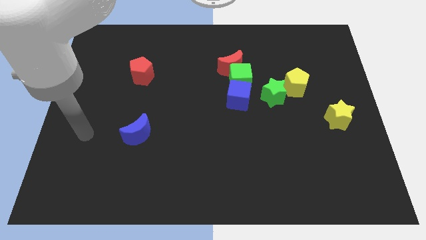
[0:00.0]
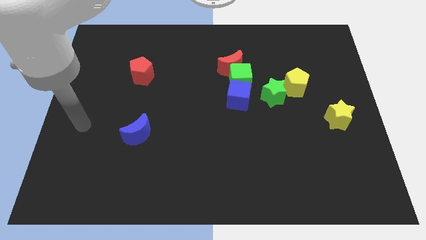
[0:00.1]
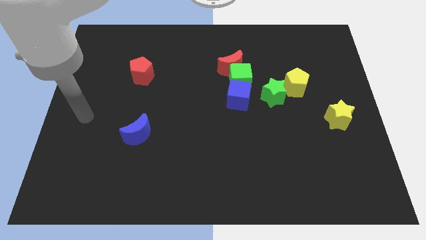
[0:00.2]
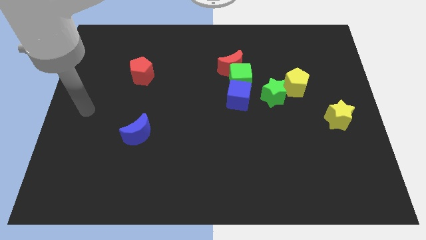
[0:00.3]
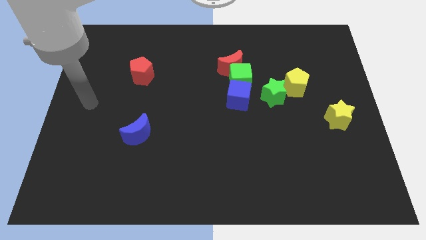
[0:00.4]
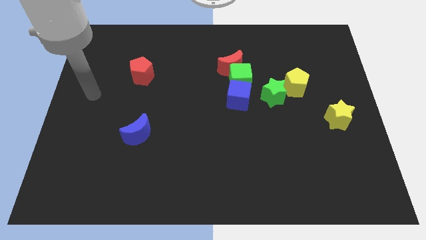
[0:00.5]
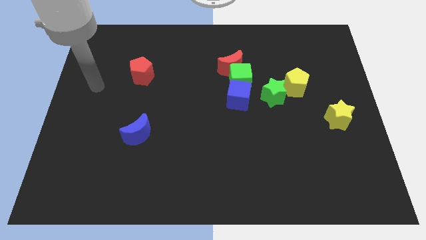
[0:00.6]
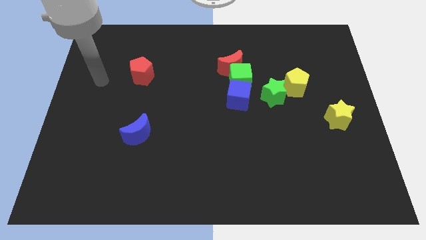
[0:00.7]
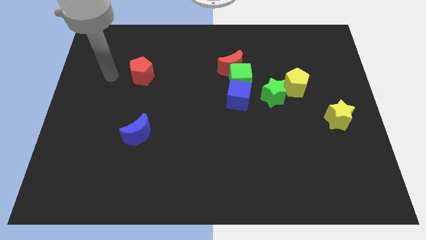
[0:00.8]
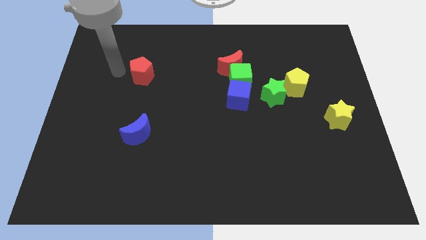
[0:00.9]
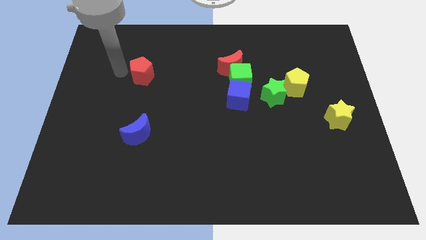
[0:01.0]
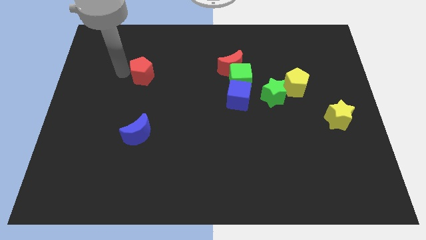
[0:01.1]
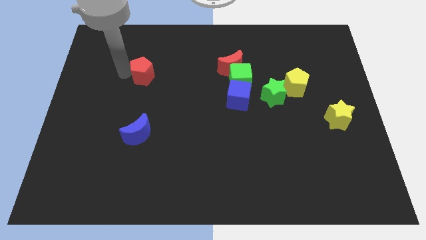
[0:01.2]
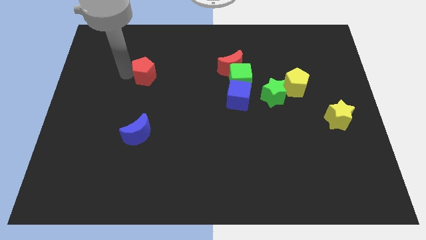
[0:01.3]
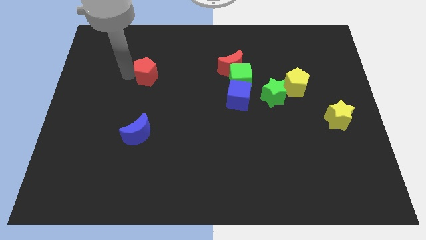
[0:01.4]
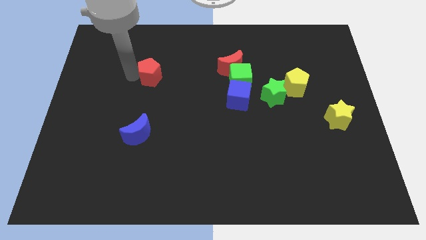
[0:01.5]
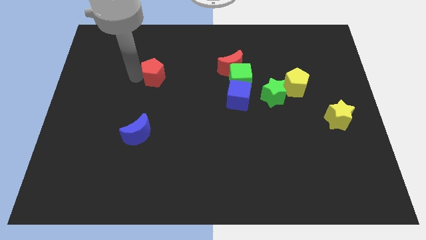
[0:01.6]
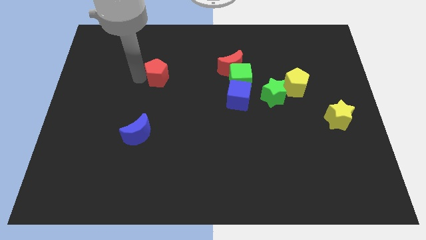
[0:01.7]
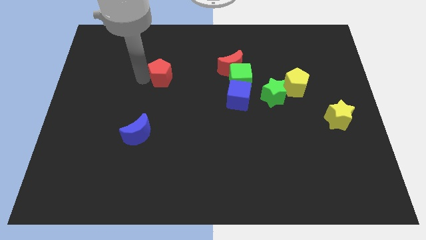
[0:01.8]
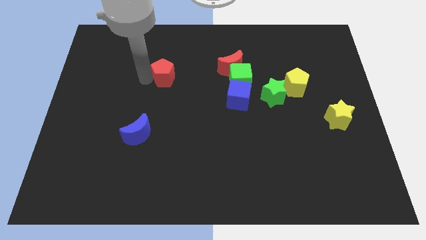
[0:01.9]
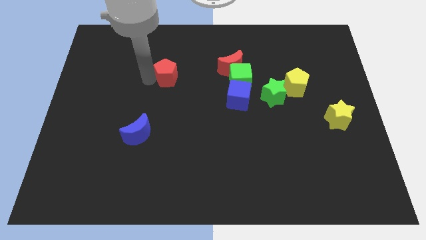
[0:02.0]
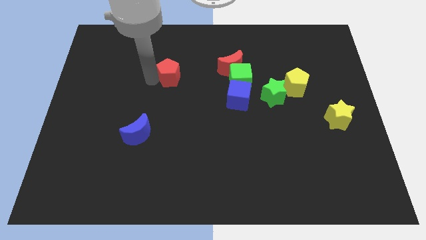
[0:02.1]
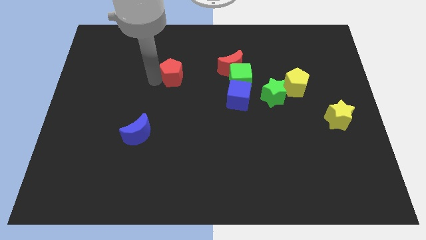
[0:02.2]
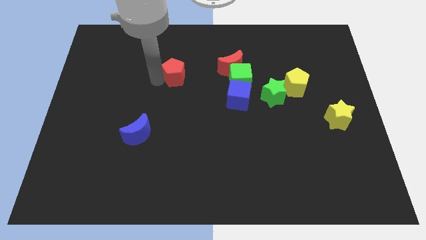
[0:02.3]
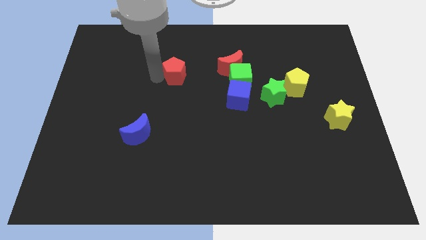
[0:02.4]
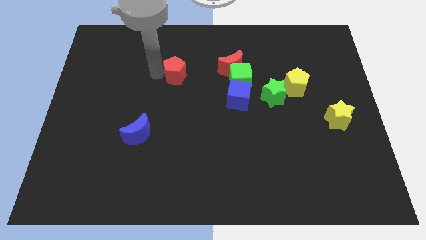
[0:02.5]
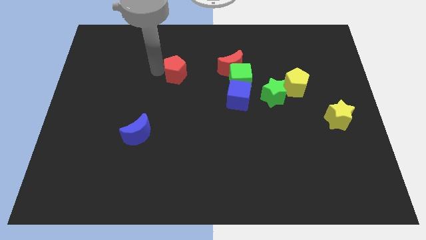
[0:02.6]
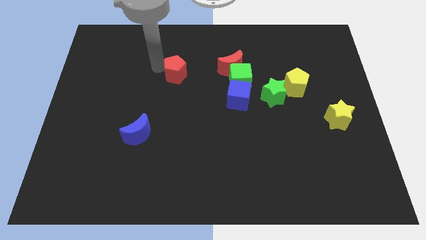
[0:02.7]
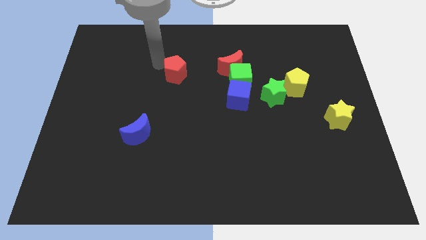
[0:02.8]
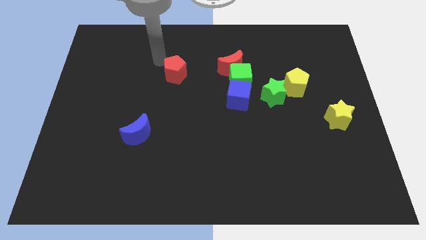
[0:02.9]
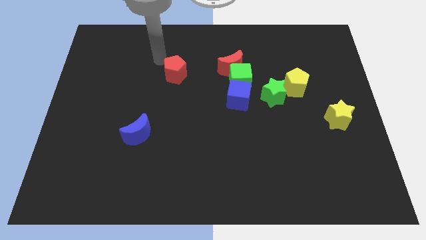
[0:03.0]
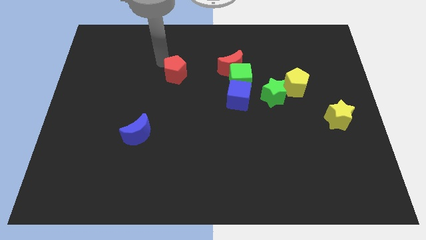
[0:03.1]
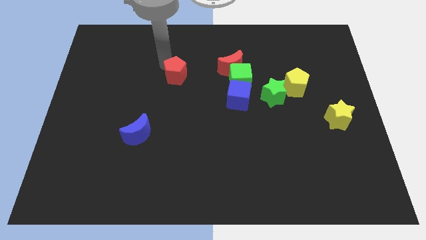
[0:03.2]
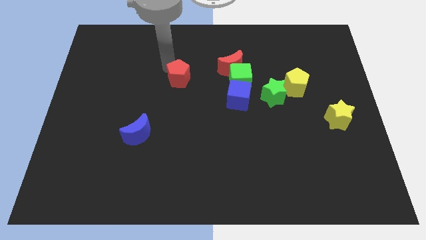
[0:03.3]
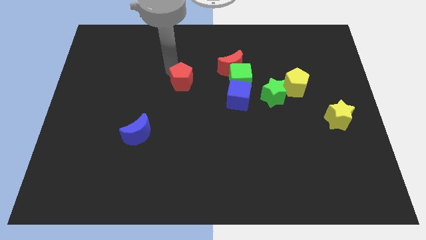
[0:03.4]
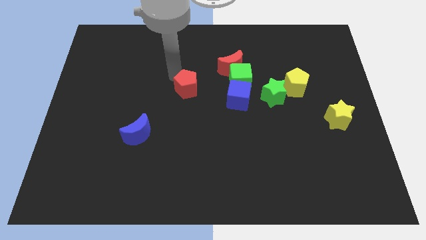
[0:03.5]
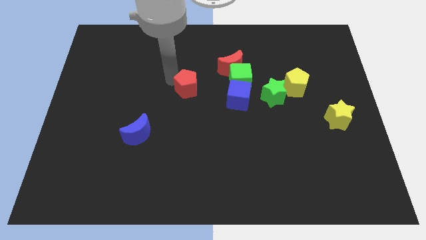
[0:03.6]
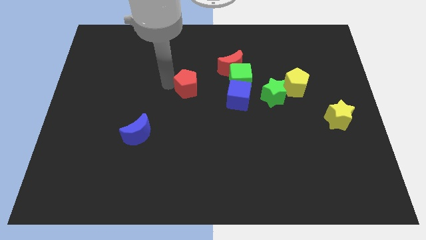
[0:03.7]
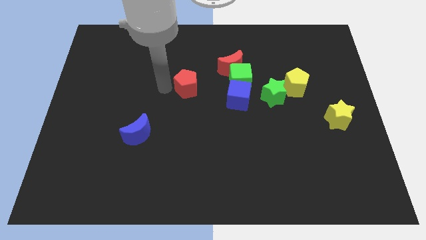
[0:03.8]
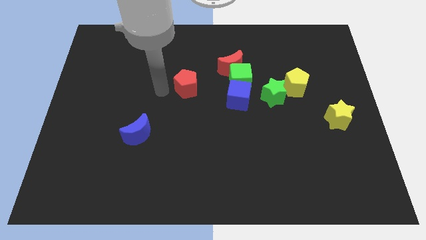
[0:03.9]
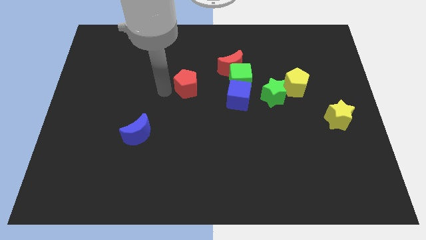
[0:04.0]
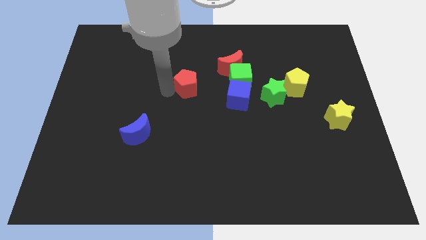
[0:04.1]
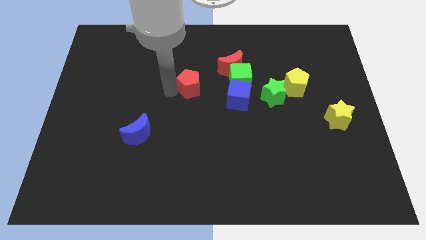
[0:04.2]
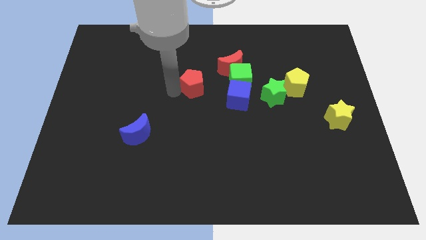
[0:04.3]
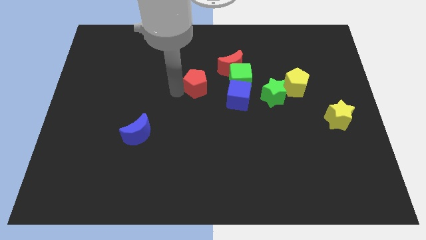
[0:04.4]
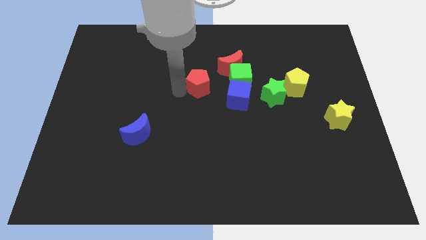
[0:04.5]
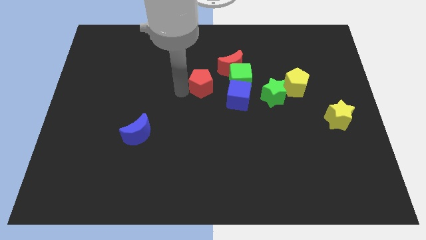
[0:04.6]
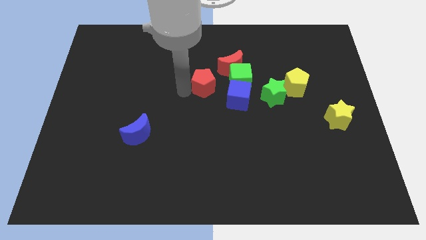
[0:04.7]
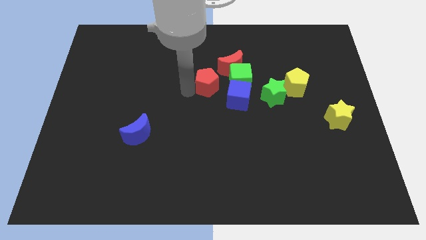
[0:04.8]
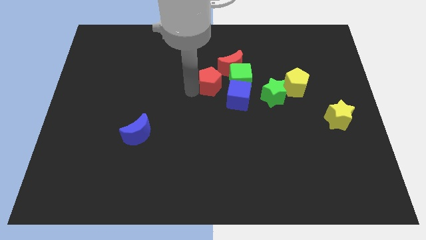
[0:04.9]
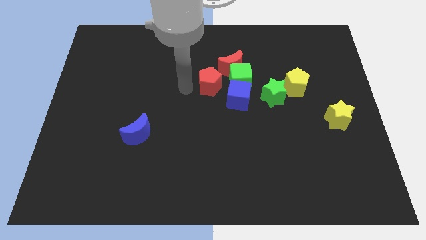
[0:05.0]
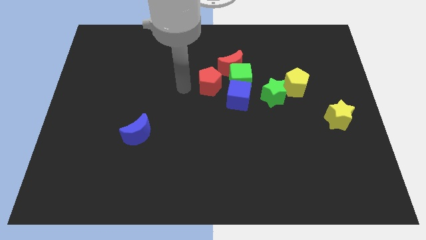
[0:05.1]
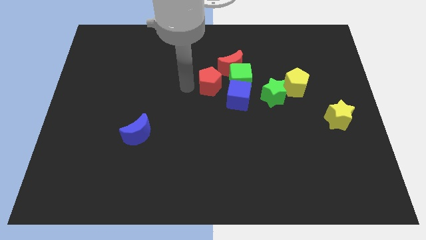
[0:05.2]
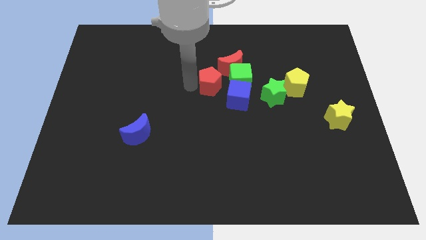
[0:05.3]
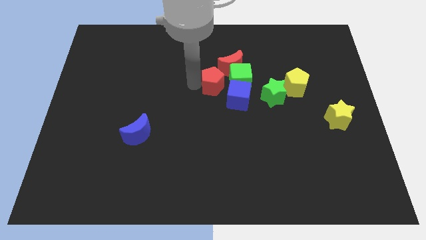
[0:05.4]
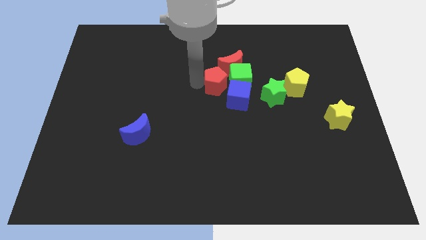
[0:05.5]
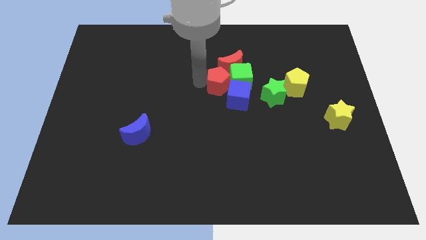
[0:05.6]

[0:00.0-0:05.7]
slide the red pentagon to the green cube

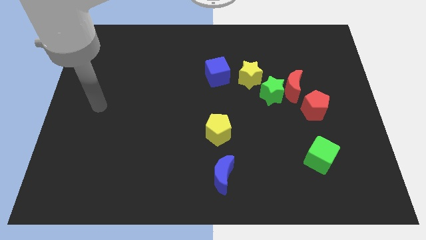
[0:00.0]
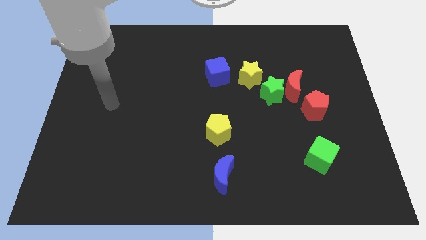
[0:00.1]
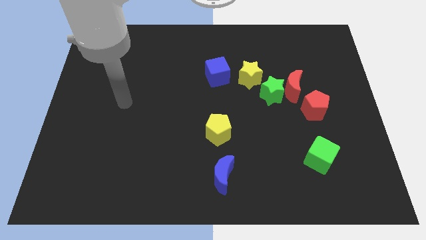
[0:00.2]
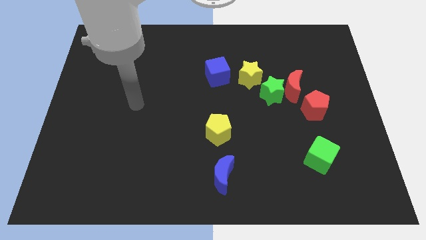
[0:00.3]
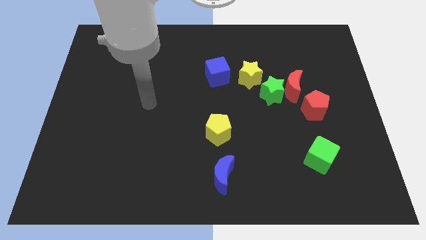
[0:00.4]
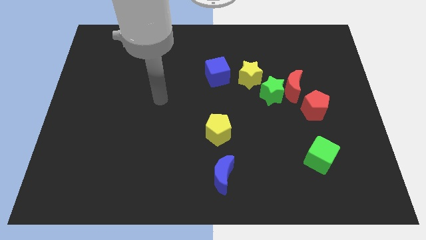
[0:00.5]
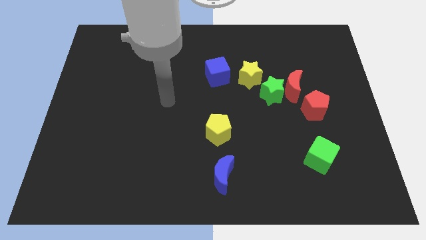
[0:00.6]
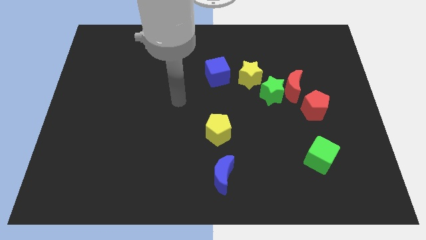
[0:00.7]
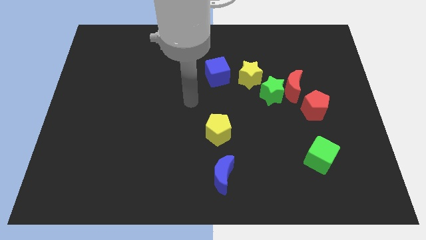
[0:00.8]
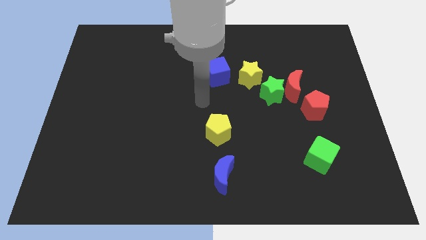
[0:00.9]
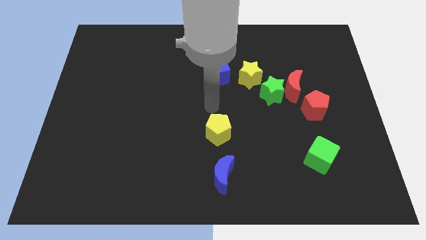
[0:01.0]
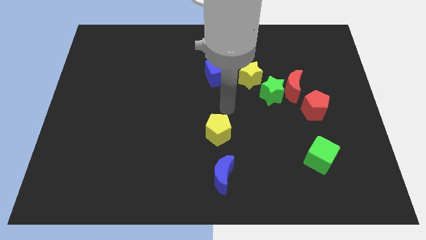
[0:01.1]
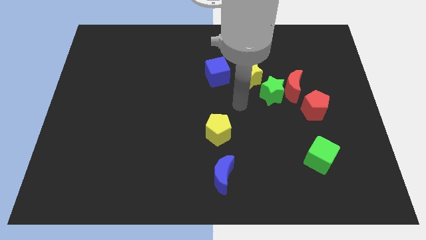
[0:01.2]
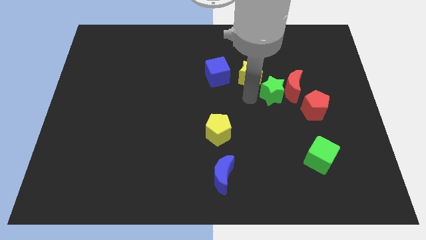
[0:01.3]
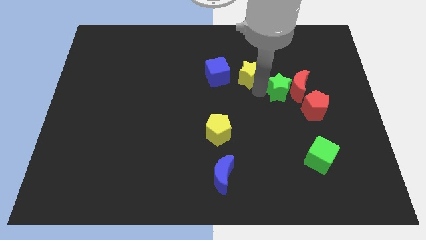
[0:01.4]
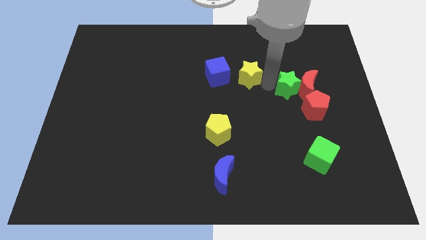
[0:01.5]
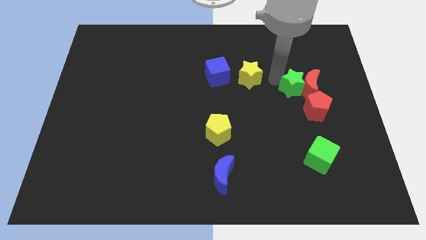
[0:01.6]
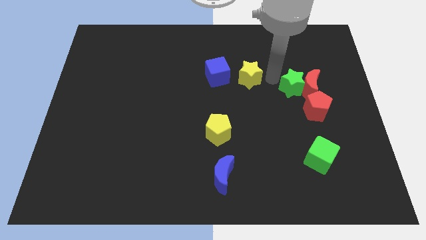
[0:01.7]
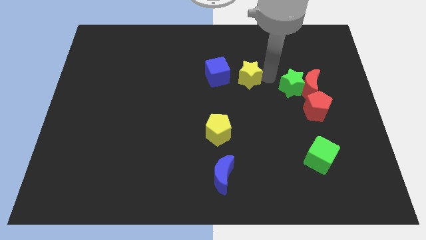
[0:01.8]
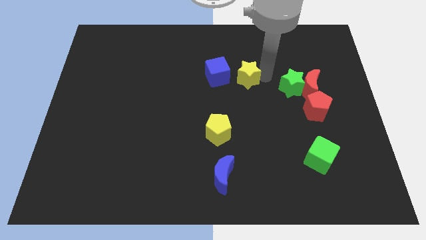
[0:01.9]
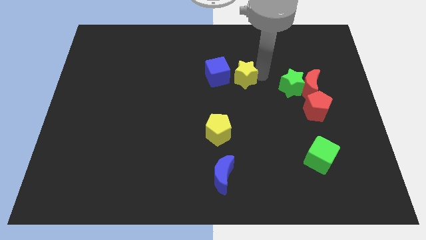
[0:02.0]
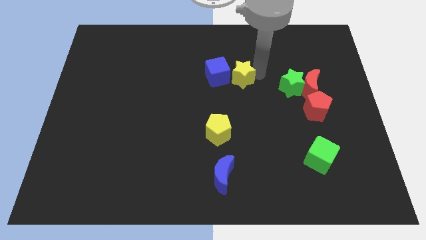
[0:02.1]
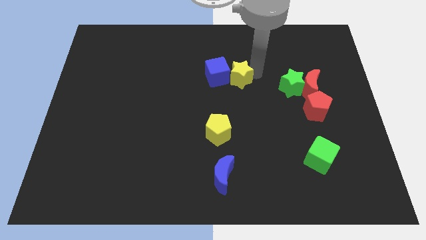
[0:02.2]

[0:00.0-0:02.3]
move the yellow star to the blue cube
